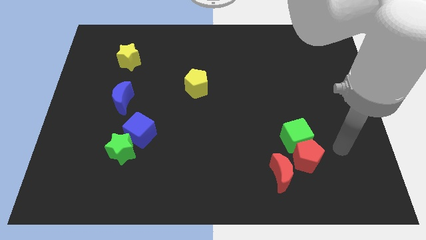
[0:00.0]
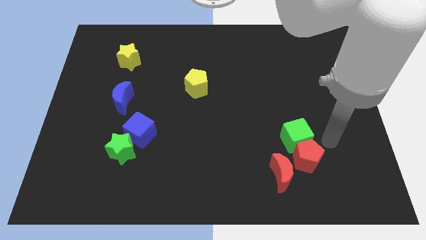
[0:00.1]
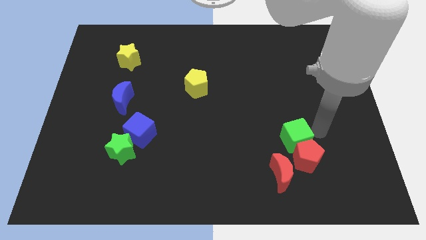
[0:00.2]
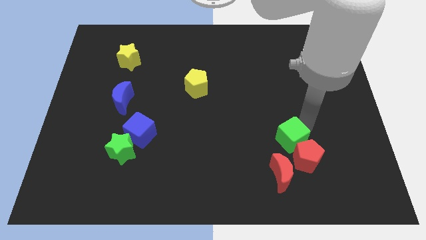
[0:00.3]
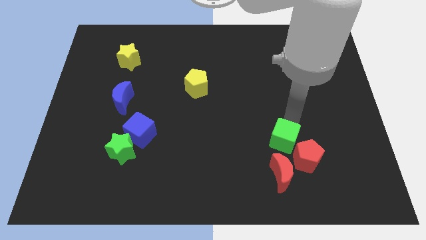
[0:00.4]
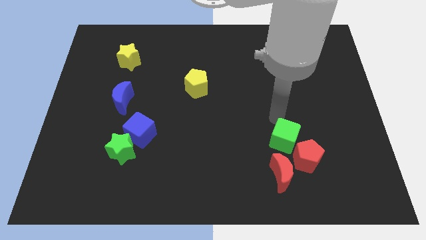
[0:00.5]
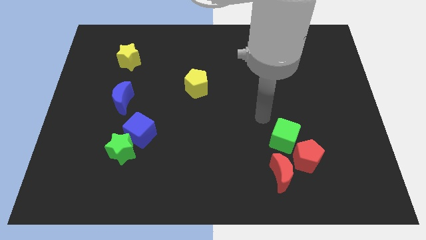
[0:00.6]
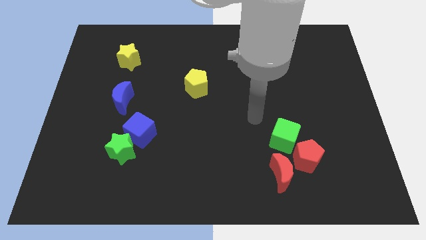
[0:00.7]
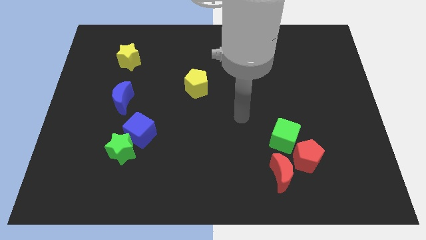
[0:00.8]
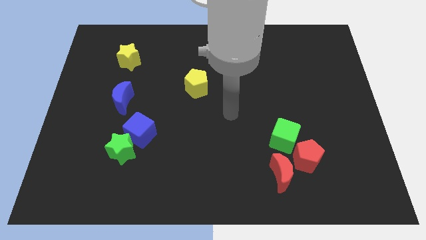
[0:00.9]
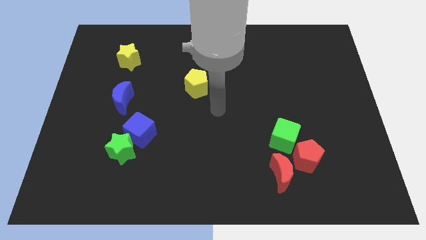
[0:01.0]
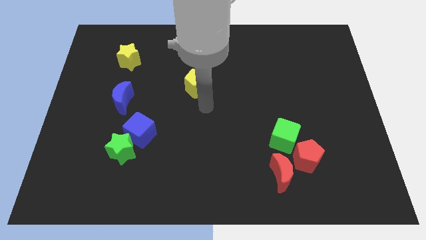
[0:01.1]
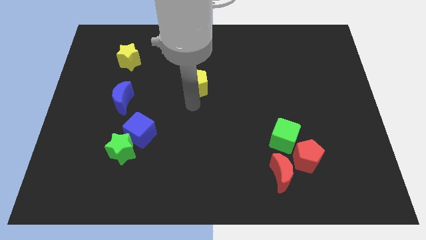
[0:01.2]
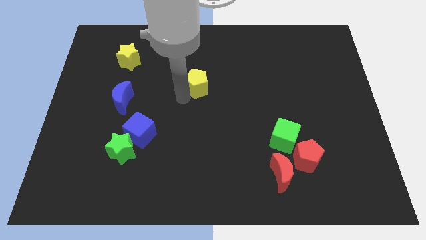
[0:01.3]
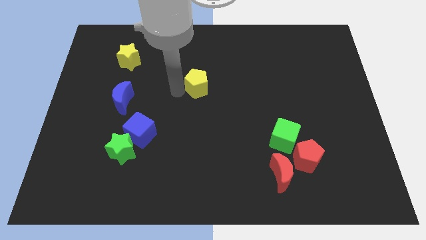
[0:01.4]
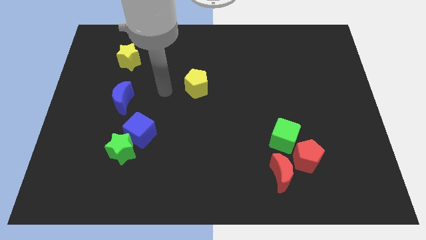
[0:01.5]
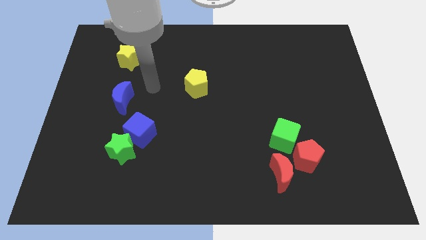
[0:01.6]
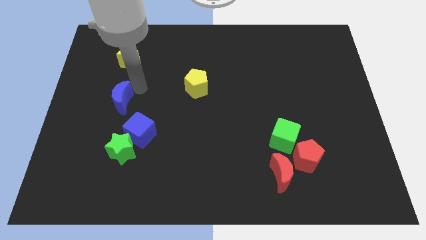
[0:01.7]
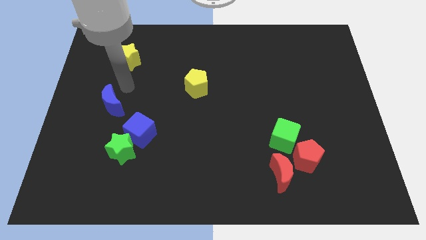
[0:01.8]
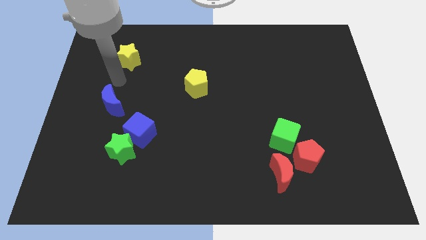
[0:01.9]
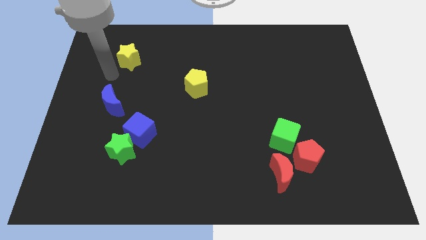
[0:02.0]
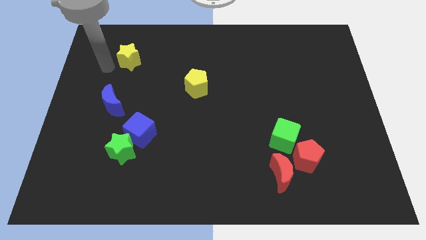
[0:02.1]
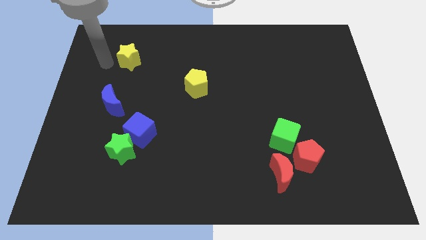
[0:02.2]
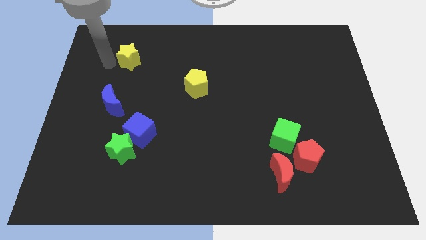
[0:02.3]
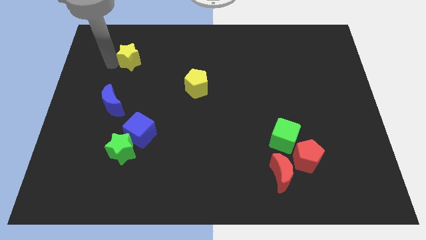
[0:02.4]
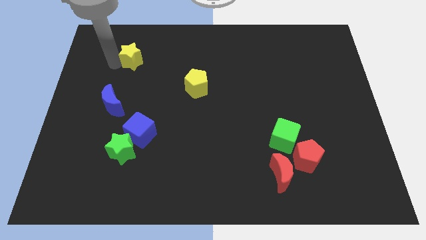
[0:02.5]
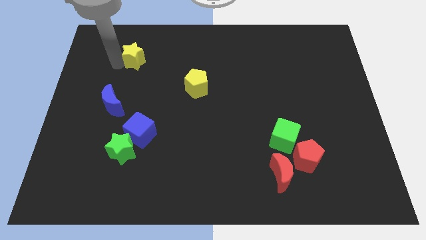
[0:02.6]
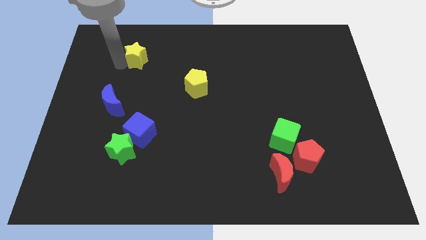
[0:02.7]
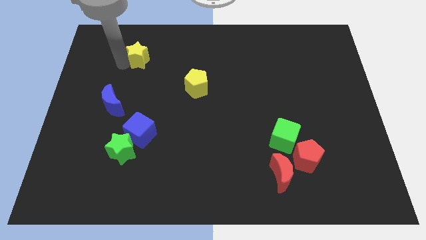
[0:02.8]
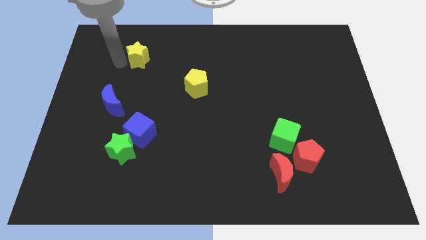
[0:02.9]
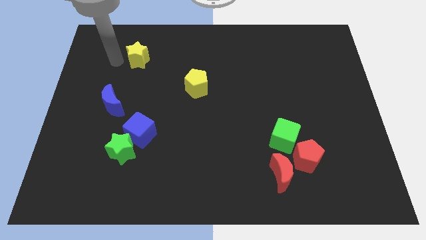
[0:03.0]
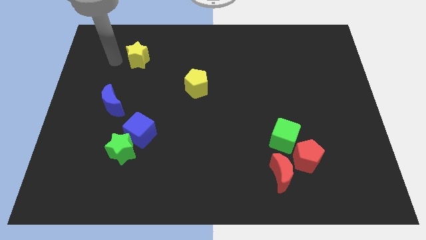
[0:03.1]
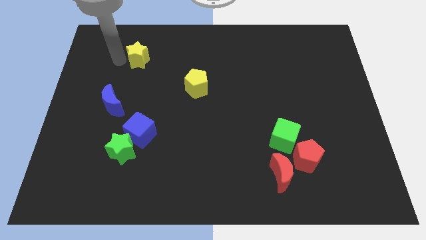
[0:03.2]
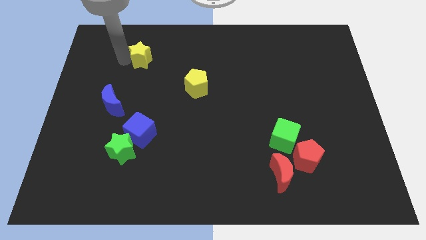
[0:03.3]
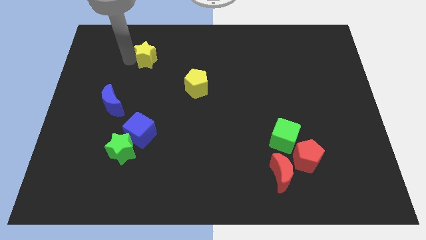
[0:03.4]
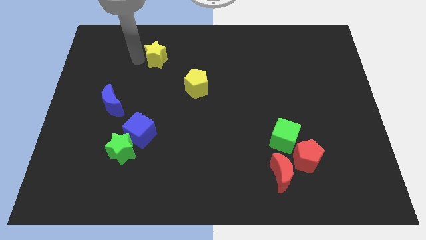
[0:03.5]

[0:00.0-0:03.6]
slide the yellow star slightly to the right

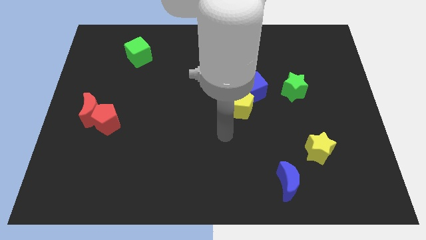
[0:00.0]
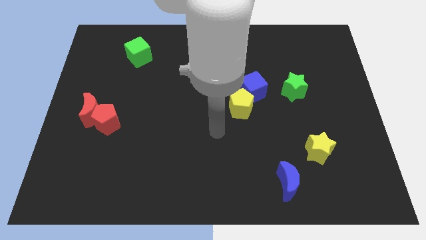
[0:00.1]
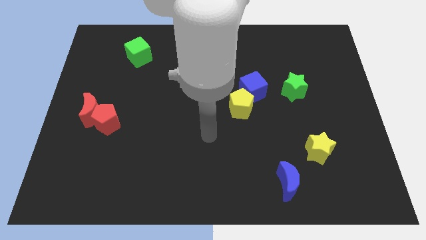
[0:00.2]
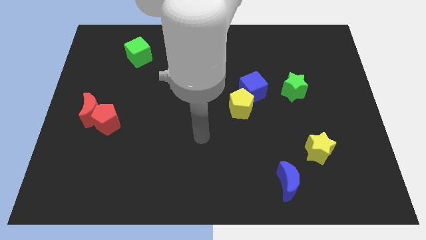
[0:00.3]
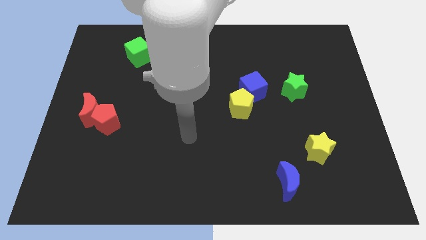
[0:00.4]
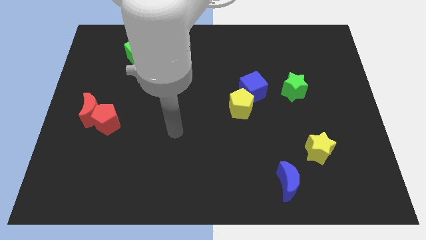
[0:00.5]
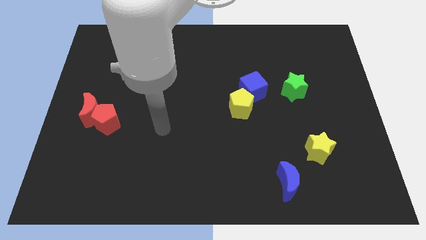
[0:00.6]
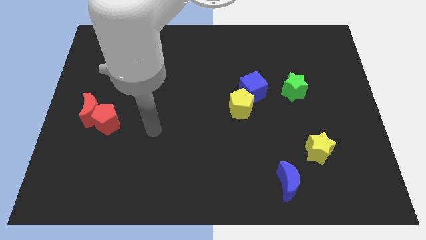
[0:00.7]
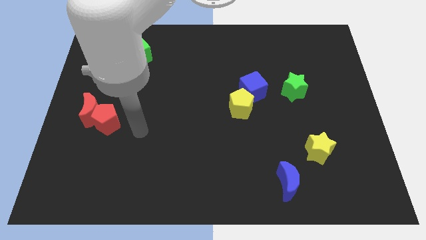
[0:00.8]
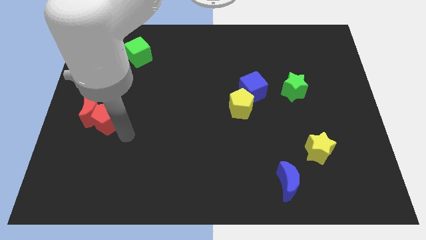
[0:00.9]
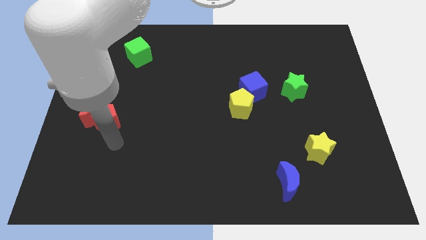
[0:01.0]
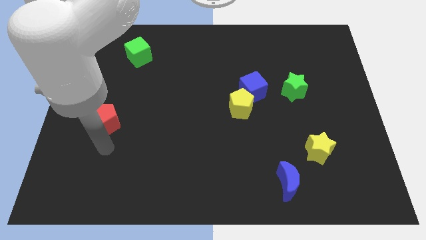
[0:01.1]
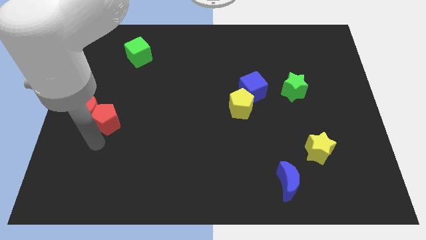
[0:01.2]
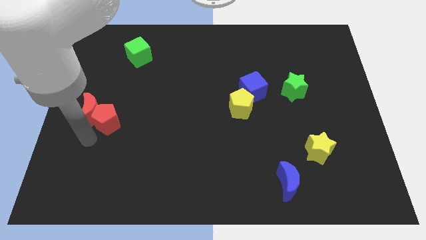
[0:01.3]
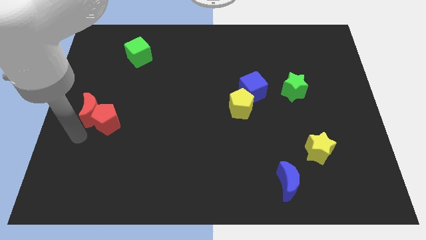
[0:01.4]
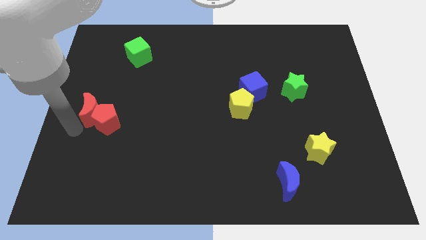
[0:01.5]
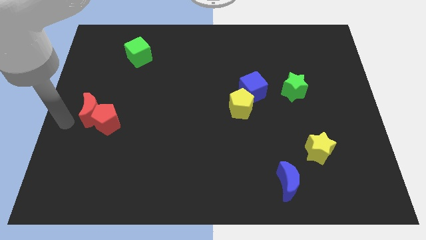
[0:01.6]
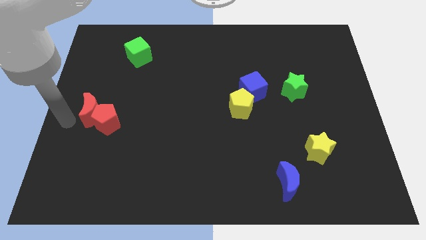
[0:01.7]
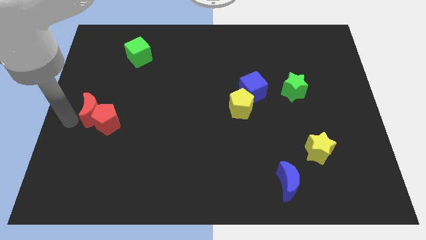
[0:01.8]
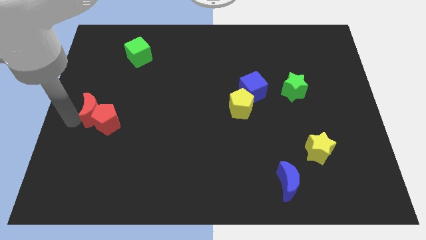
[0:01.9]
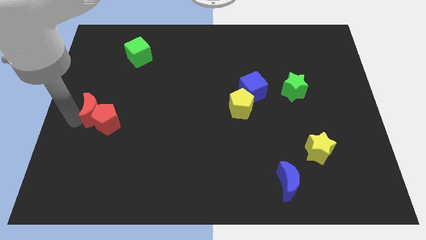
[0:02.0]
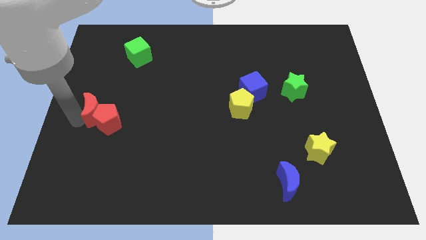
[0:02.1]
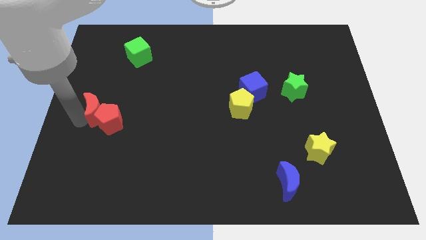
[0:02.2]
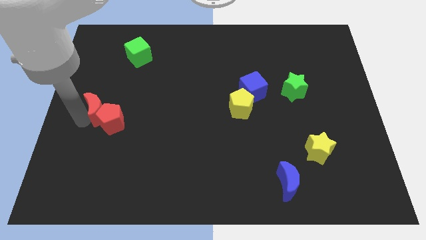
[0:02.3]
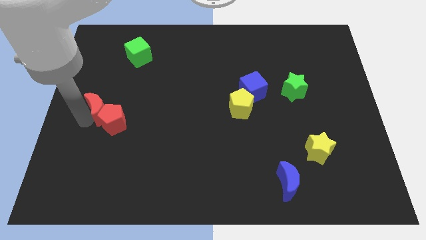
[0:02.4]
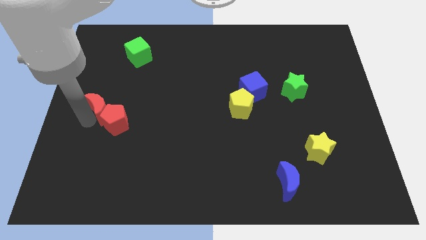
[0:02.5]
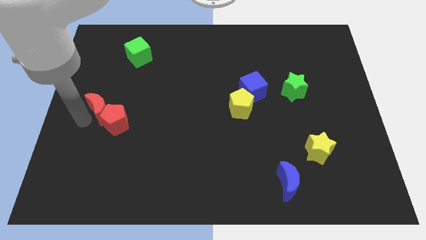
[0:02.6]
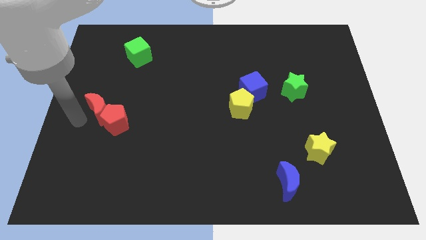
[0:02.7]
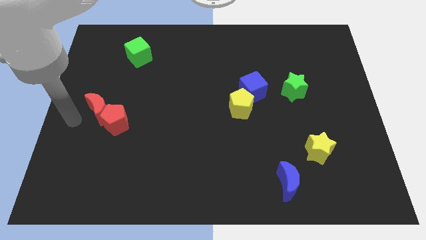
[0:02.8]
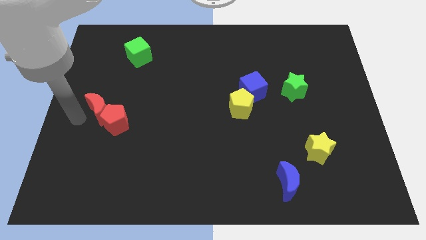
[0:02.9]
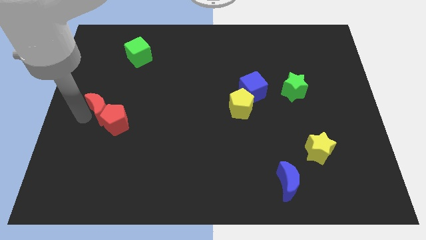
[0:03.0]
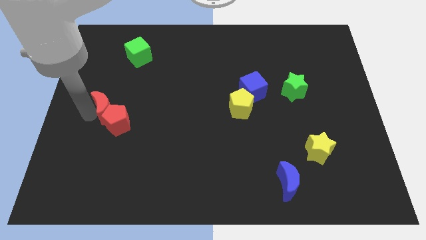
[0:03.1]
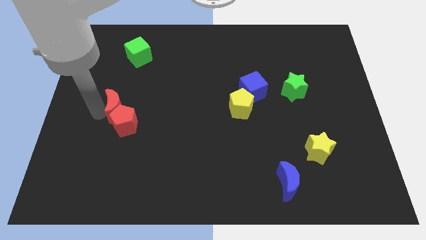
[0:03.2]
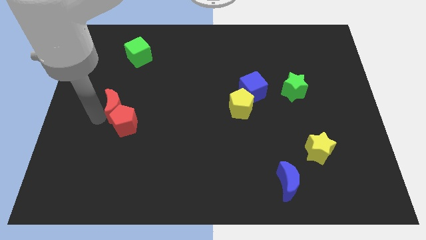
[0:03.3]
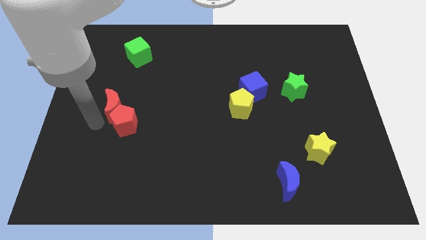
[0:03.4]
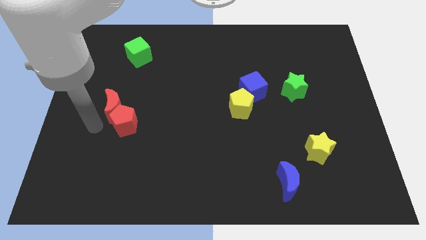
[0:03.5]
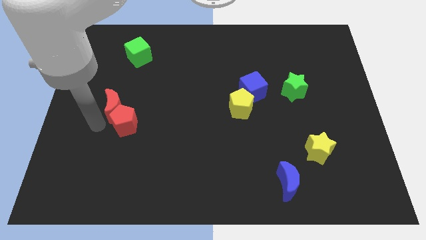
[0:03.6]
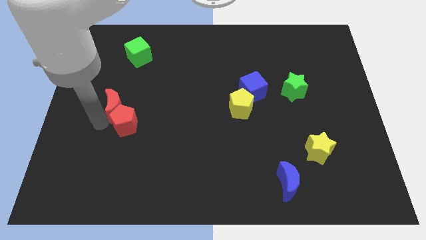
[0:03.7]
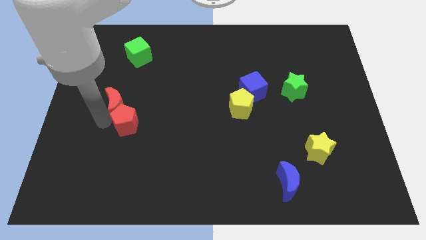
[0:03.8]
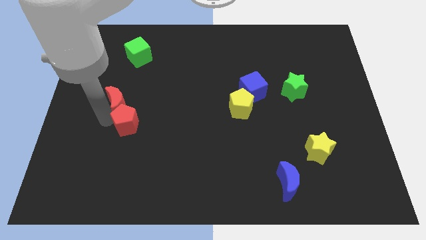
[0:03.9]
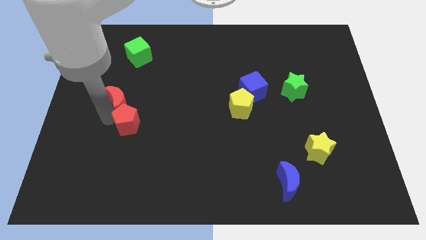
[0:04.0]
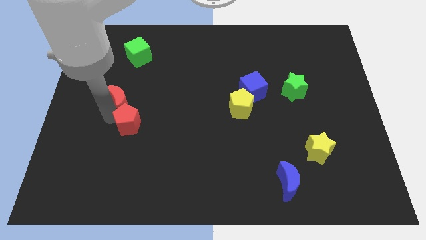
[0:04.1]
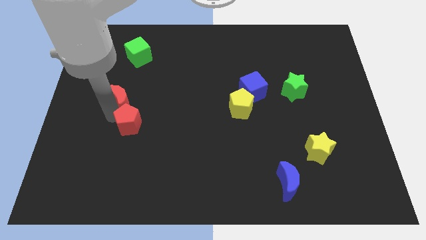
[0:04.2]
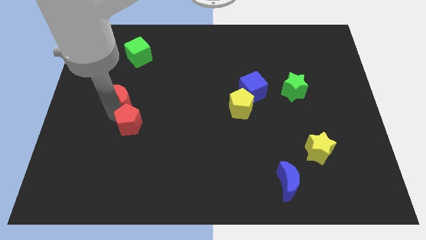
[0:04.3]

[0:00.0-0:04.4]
slide the red moon up and right diagonally a little bit

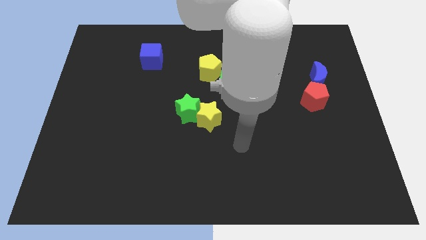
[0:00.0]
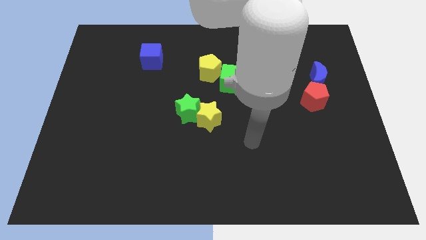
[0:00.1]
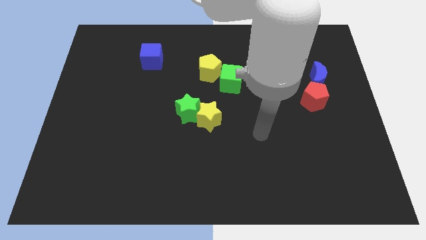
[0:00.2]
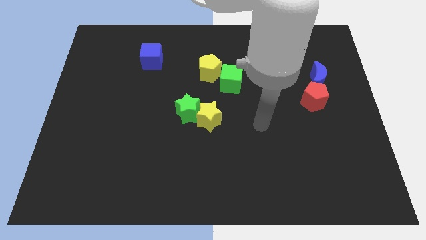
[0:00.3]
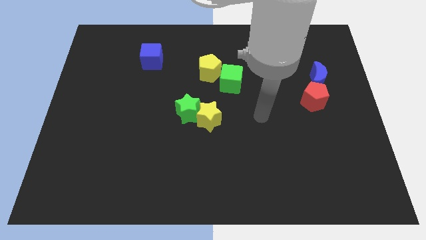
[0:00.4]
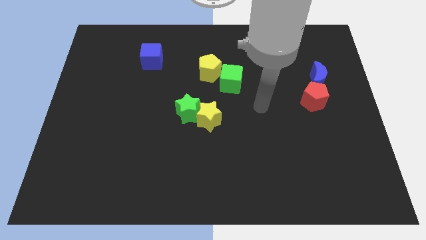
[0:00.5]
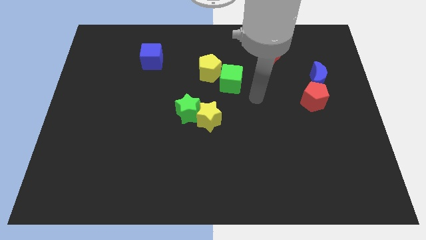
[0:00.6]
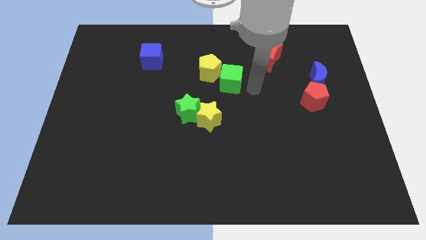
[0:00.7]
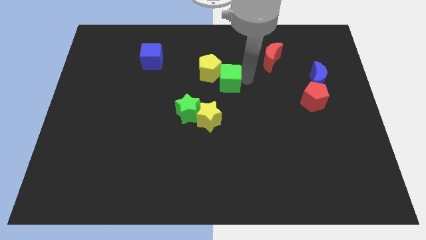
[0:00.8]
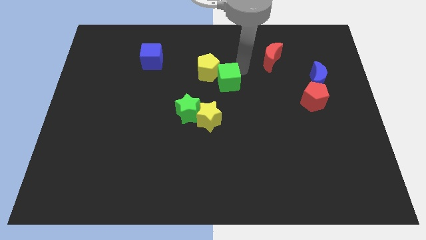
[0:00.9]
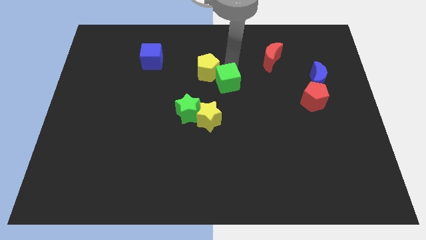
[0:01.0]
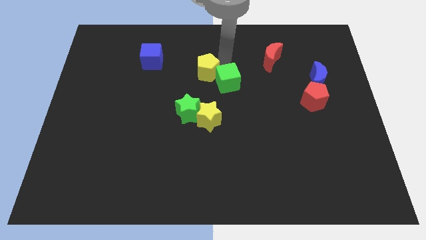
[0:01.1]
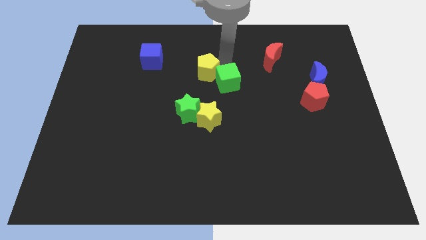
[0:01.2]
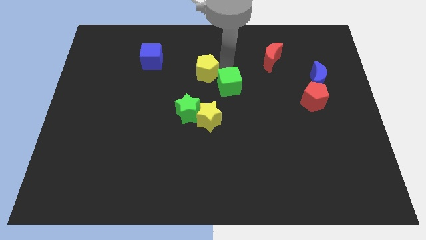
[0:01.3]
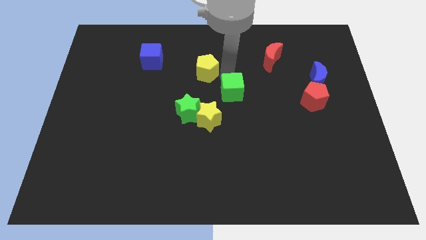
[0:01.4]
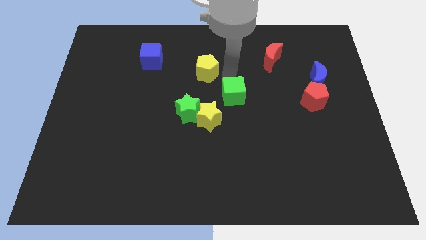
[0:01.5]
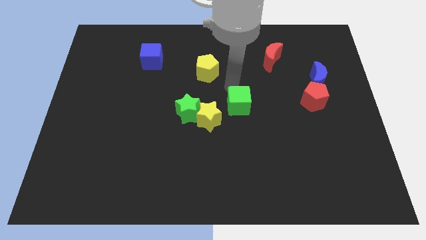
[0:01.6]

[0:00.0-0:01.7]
push the green cube slightly downwards
